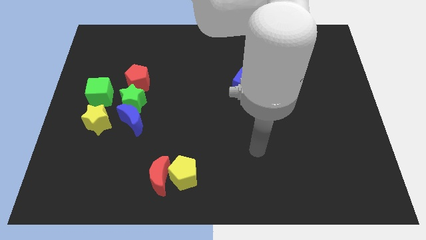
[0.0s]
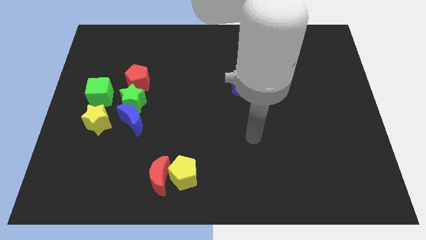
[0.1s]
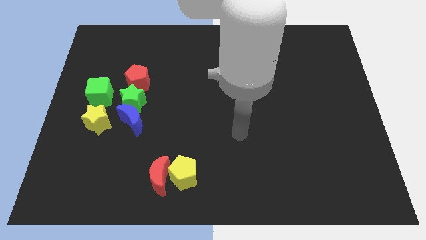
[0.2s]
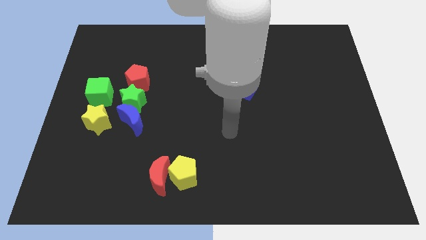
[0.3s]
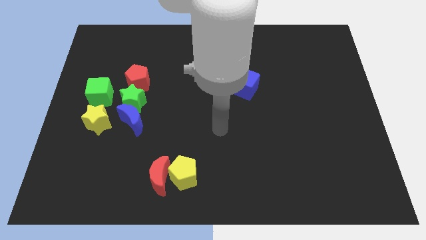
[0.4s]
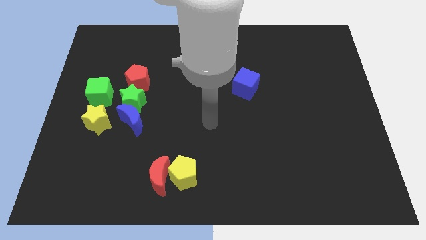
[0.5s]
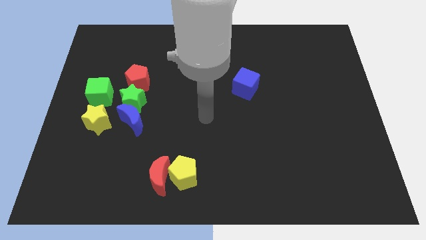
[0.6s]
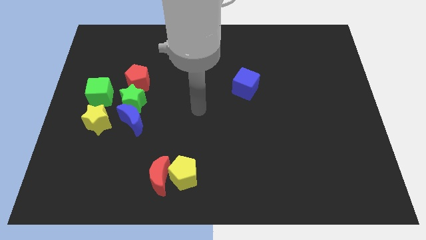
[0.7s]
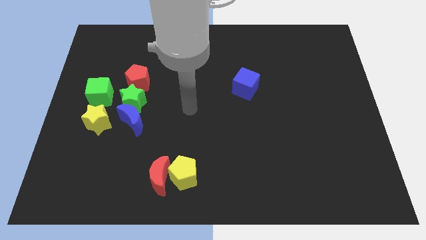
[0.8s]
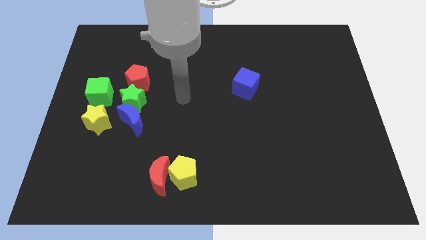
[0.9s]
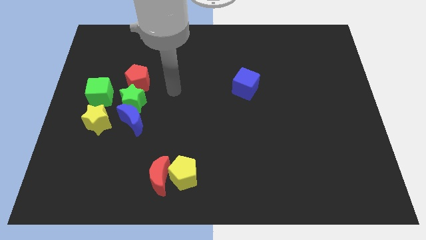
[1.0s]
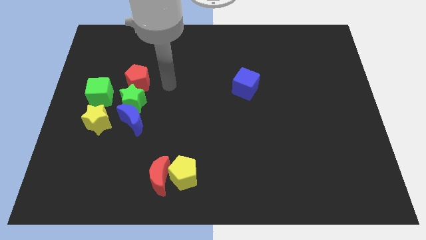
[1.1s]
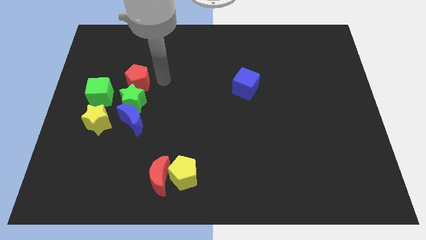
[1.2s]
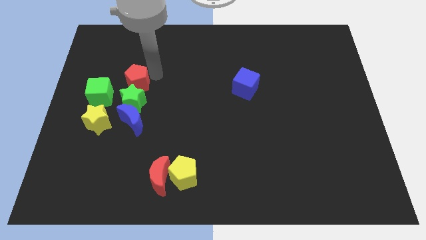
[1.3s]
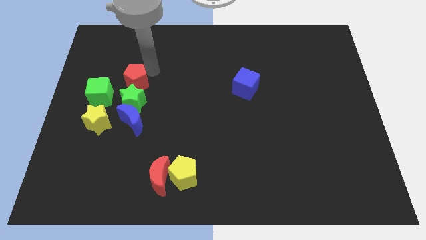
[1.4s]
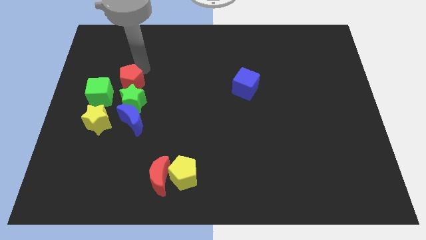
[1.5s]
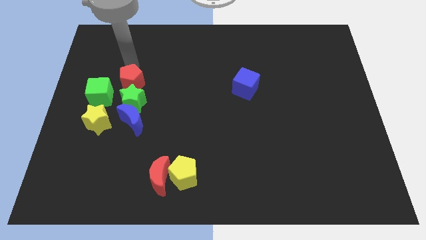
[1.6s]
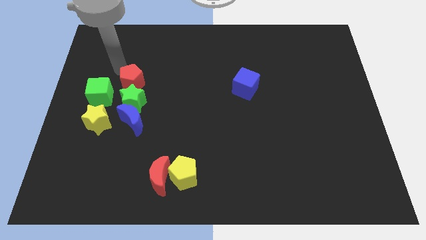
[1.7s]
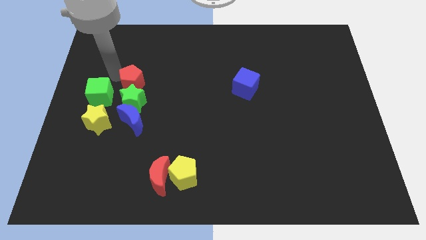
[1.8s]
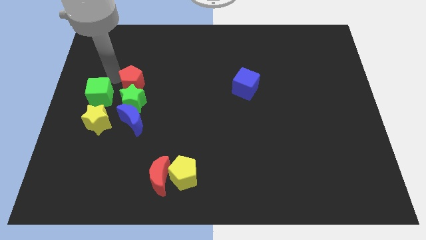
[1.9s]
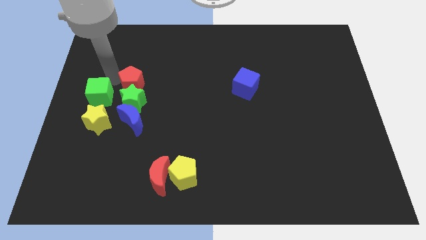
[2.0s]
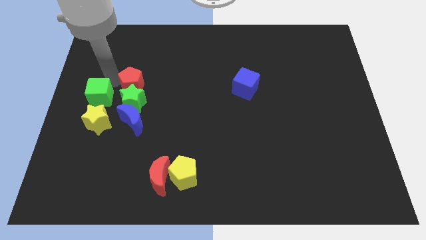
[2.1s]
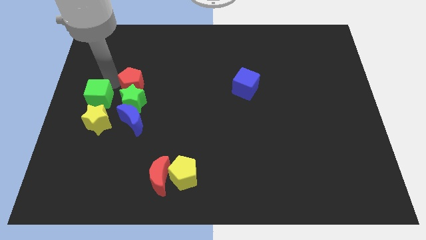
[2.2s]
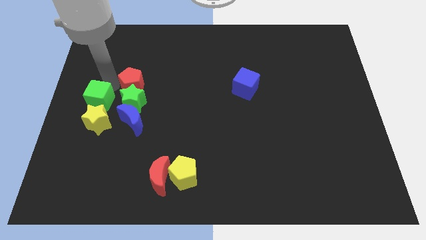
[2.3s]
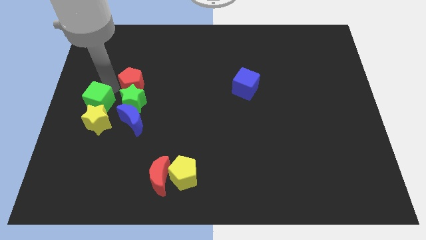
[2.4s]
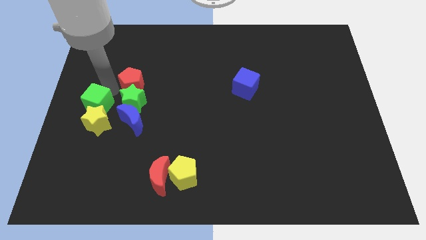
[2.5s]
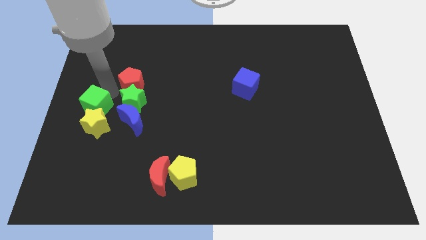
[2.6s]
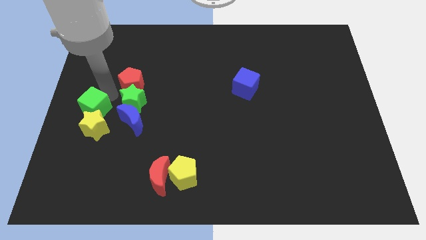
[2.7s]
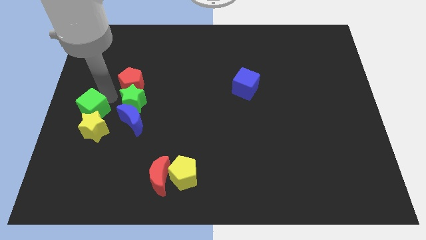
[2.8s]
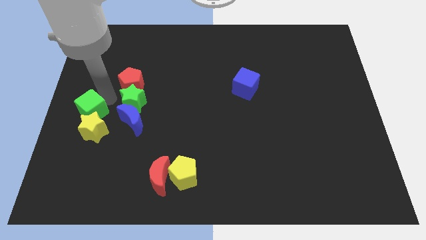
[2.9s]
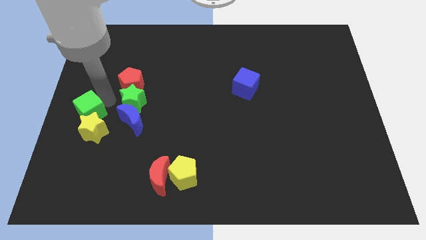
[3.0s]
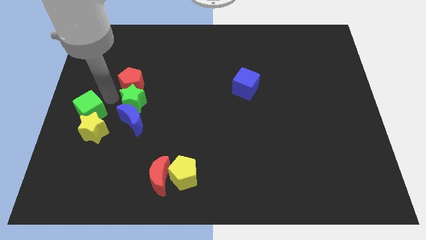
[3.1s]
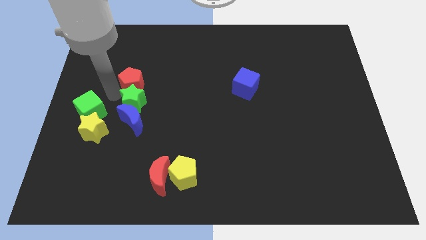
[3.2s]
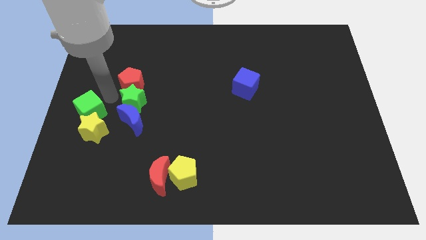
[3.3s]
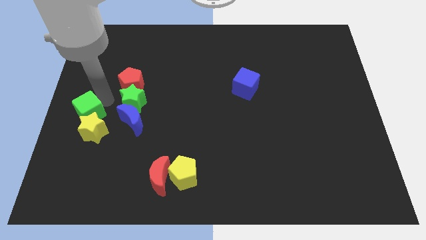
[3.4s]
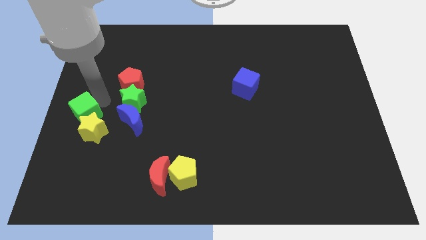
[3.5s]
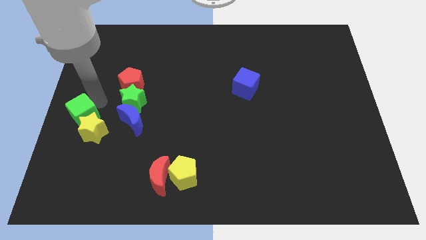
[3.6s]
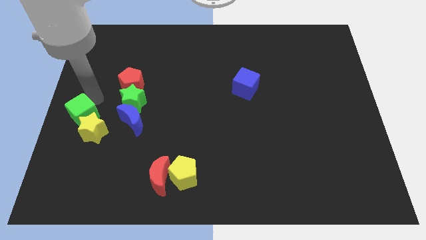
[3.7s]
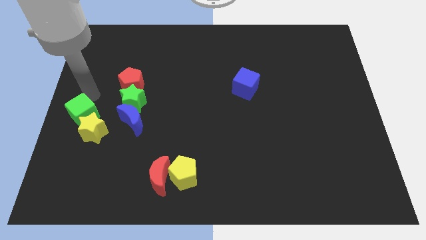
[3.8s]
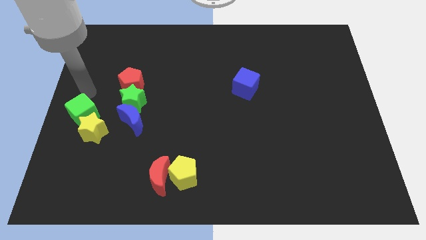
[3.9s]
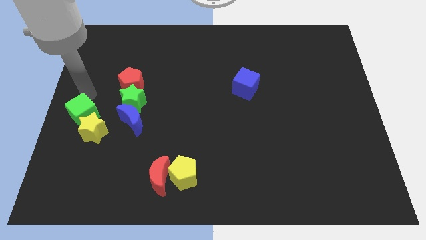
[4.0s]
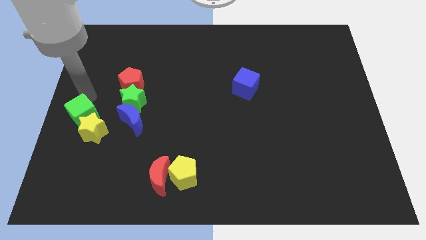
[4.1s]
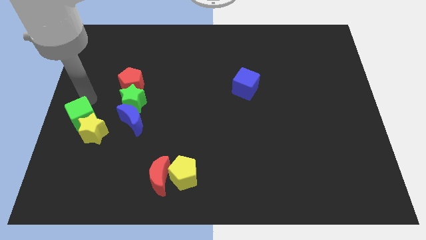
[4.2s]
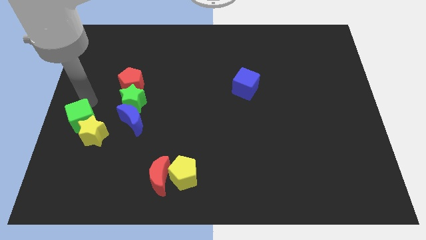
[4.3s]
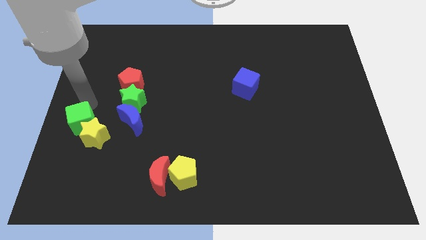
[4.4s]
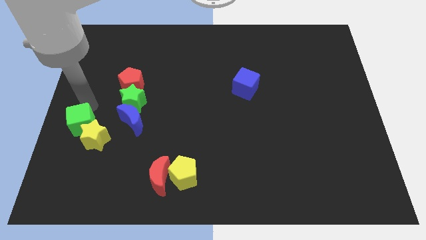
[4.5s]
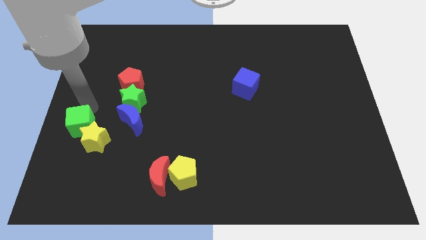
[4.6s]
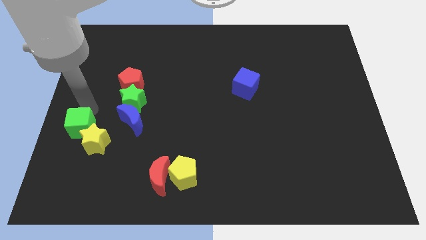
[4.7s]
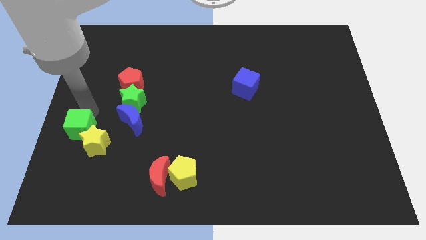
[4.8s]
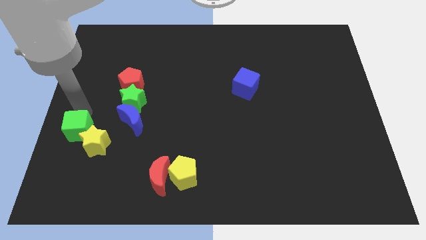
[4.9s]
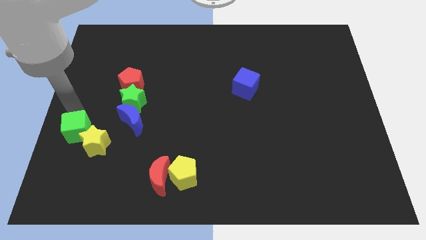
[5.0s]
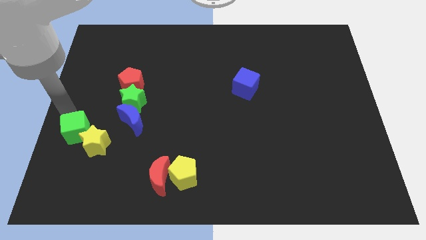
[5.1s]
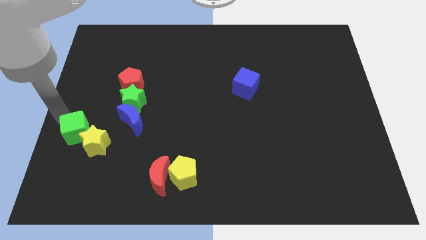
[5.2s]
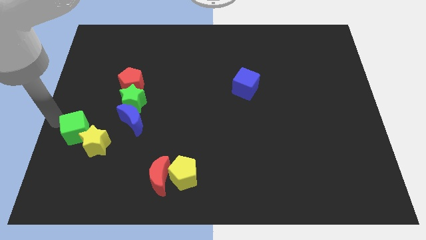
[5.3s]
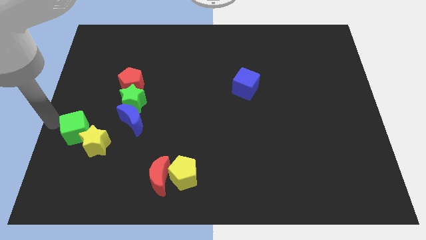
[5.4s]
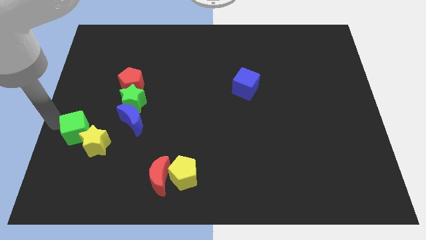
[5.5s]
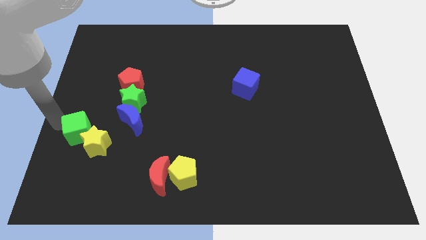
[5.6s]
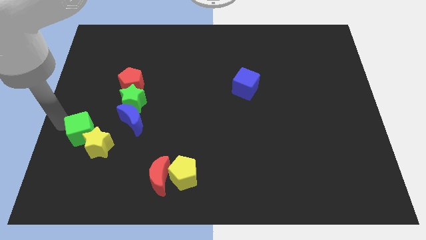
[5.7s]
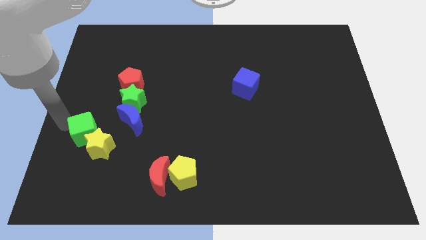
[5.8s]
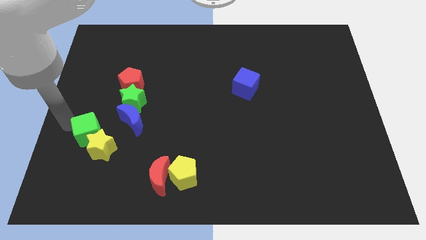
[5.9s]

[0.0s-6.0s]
move the green cube diagonally down and to the left of the blue moon

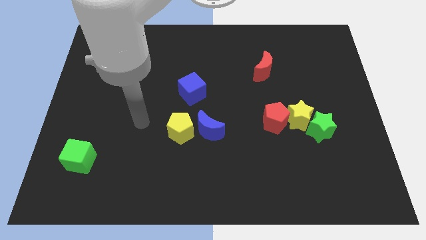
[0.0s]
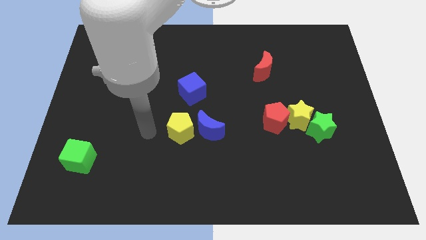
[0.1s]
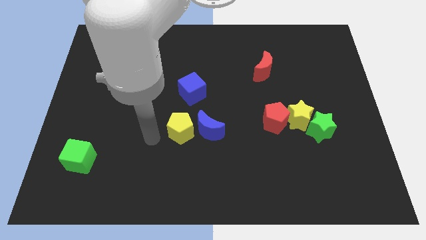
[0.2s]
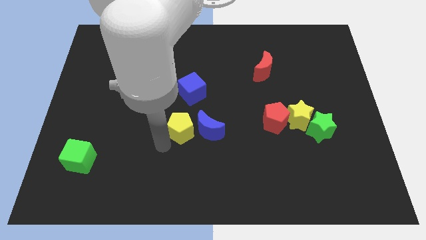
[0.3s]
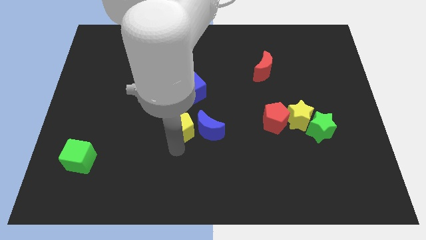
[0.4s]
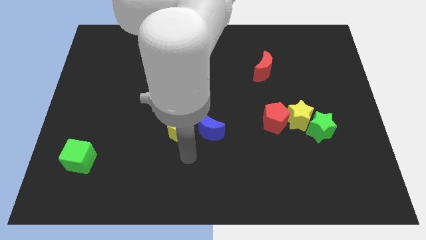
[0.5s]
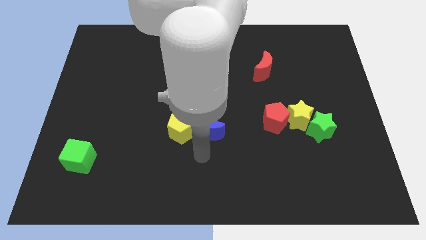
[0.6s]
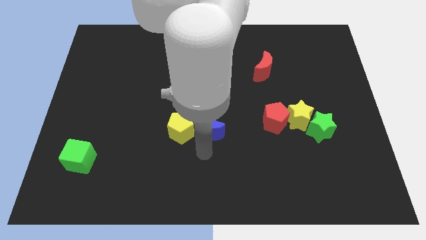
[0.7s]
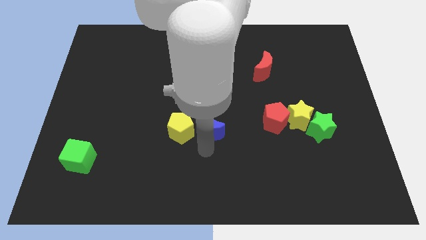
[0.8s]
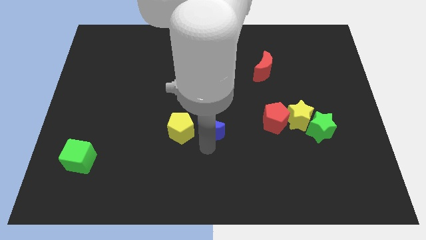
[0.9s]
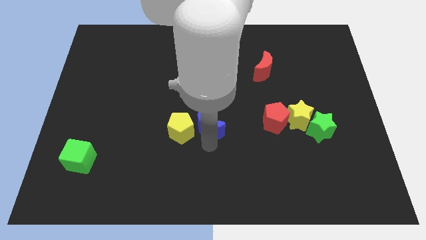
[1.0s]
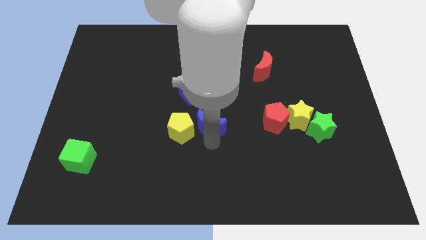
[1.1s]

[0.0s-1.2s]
push the blue moon to the bottom right of the blue cube

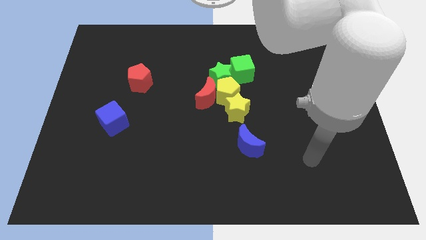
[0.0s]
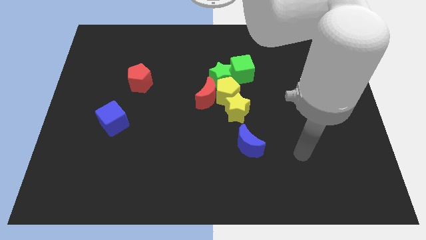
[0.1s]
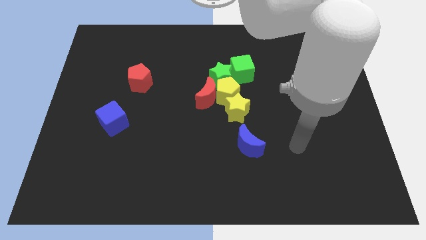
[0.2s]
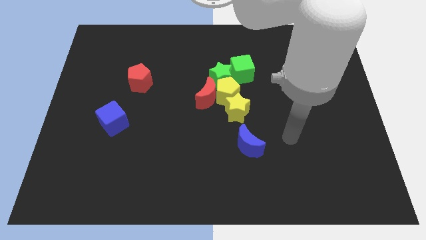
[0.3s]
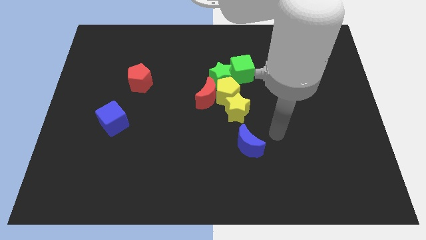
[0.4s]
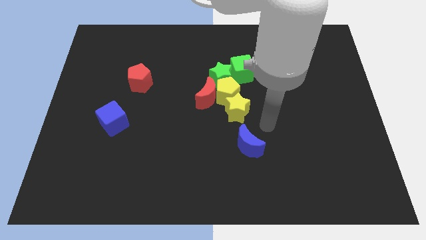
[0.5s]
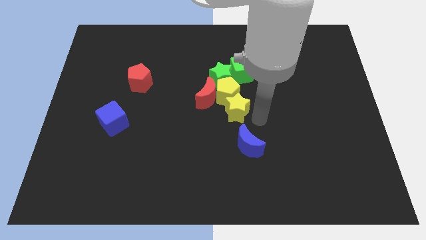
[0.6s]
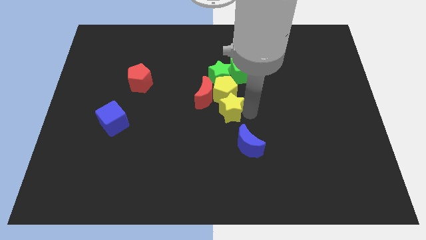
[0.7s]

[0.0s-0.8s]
put the green star to the top left side of the green cube
